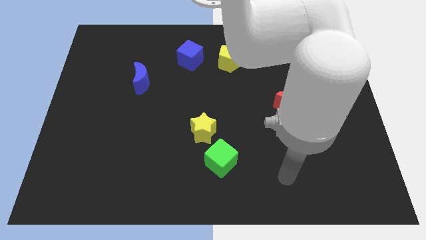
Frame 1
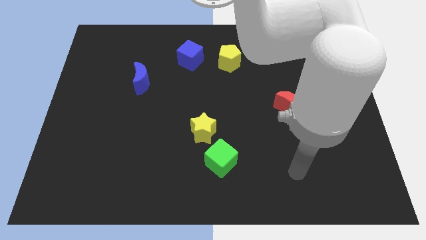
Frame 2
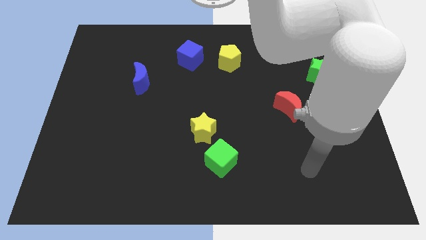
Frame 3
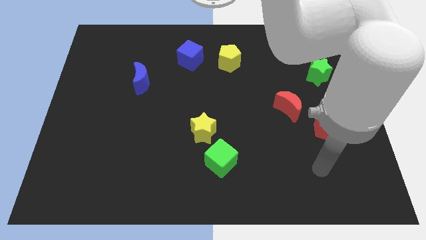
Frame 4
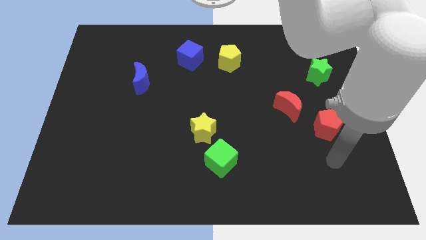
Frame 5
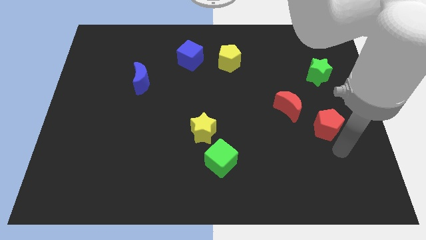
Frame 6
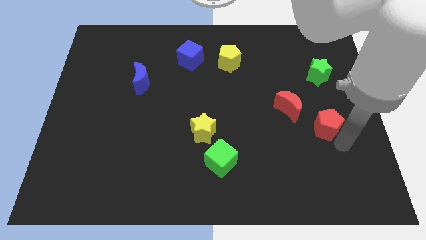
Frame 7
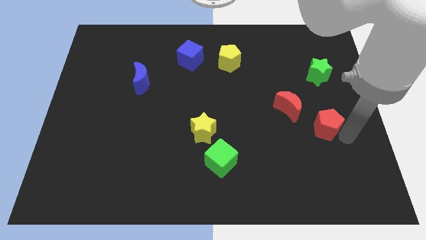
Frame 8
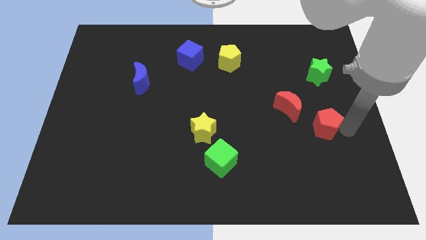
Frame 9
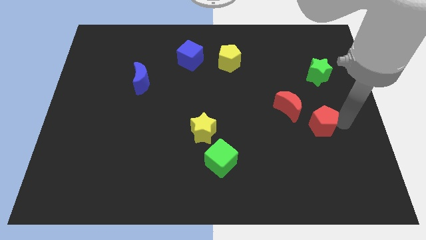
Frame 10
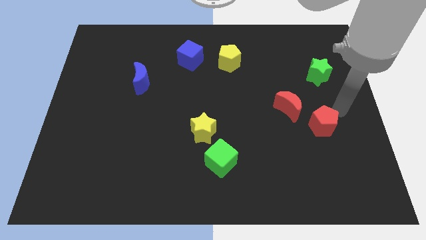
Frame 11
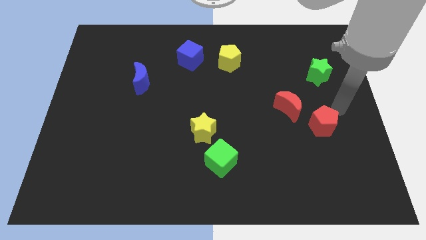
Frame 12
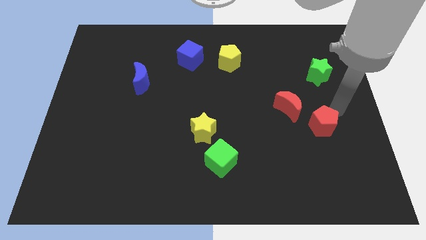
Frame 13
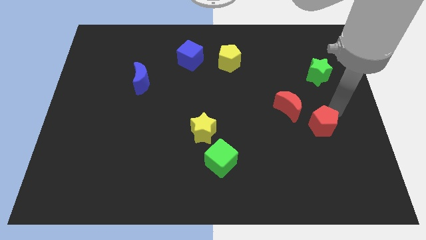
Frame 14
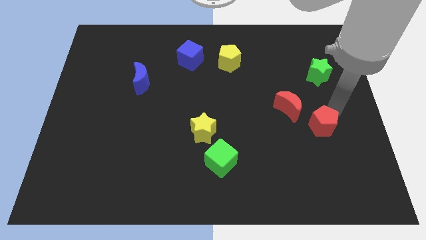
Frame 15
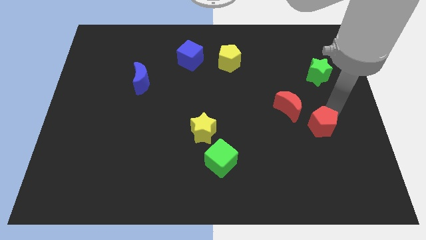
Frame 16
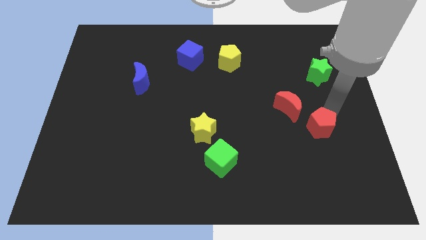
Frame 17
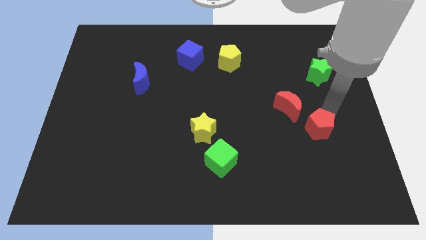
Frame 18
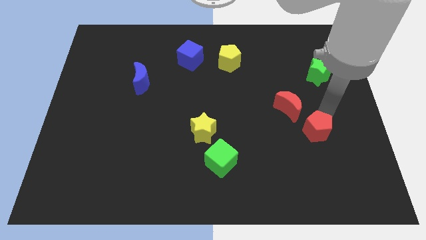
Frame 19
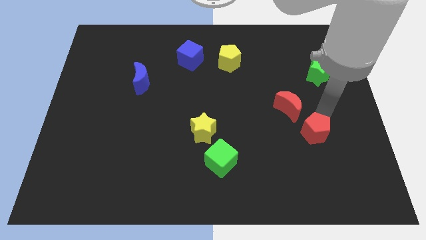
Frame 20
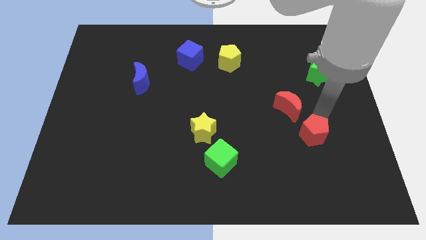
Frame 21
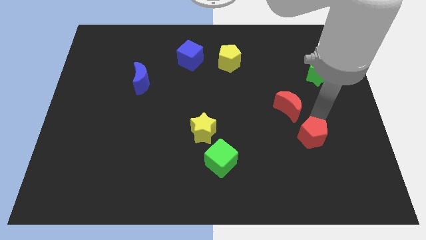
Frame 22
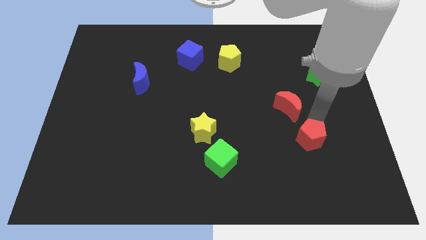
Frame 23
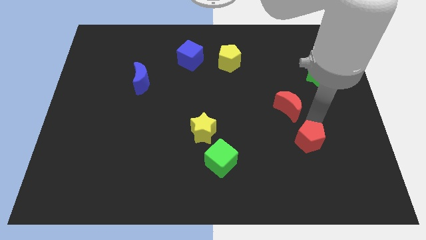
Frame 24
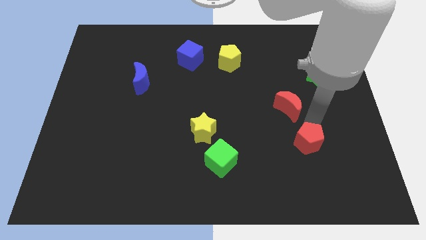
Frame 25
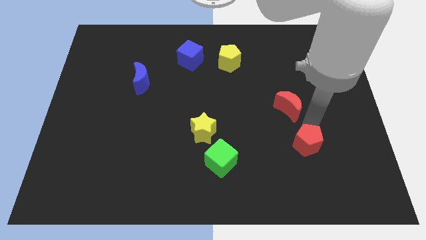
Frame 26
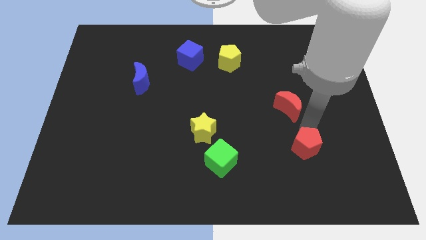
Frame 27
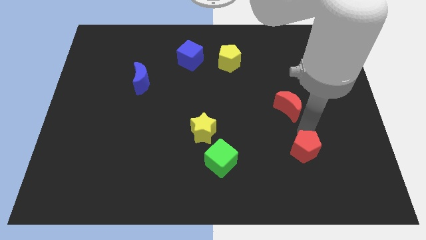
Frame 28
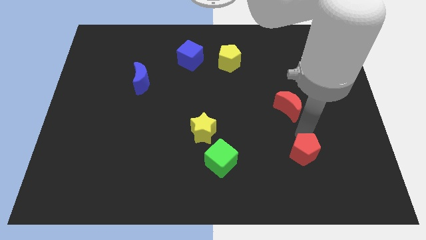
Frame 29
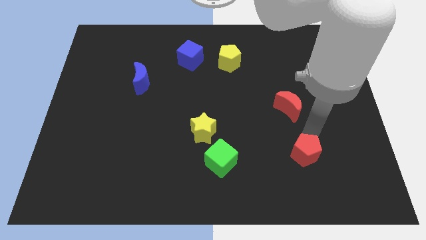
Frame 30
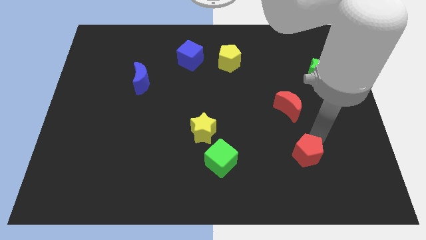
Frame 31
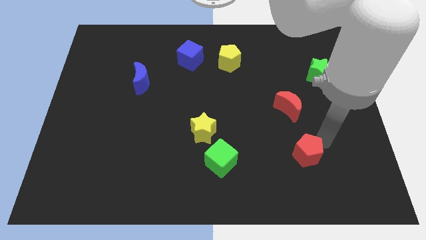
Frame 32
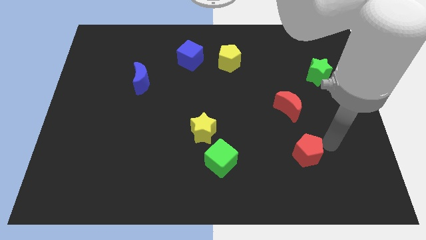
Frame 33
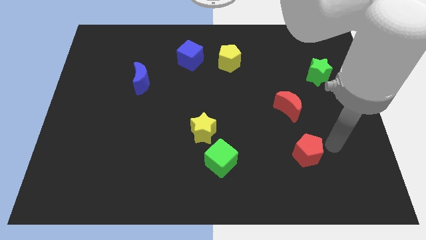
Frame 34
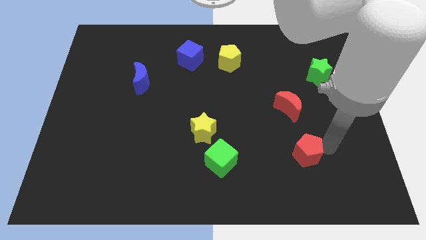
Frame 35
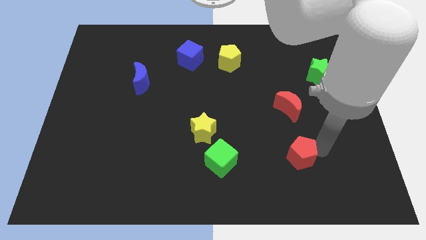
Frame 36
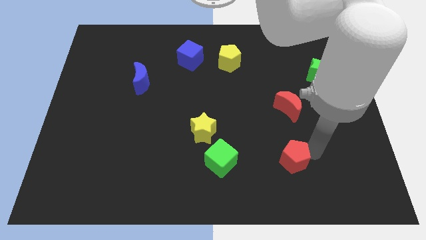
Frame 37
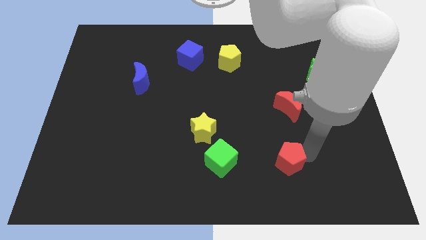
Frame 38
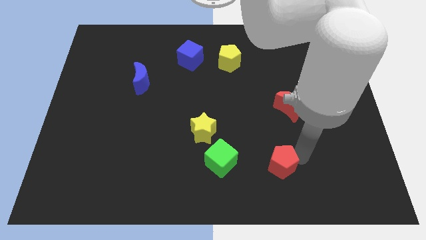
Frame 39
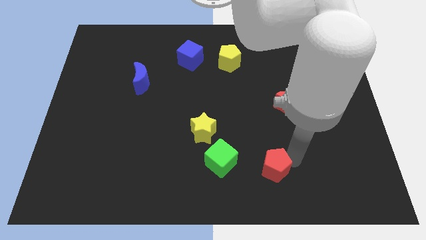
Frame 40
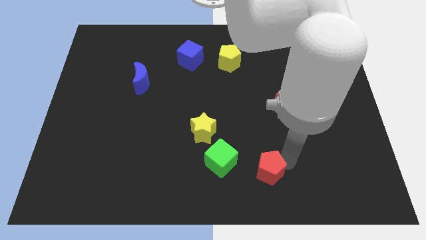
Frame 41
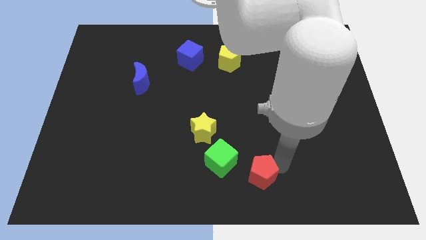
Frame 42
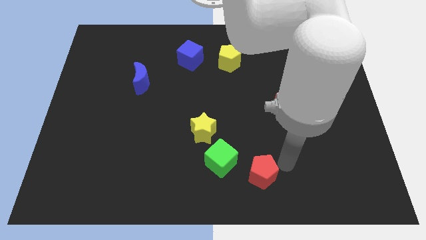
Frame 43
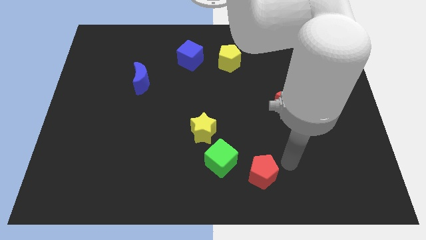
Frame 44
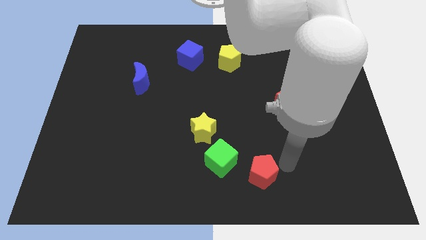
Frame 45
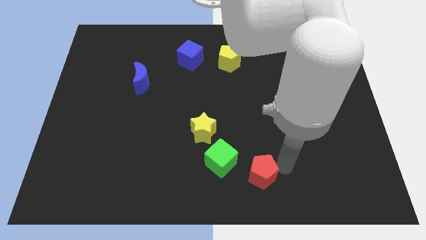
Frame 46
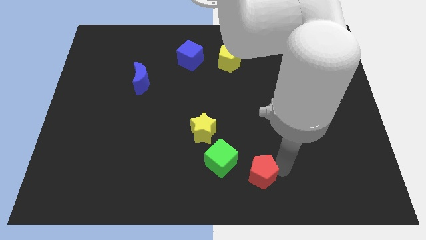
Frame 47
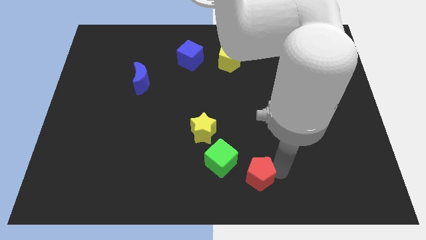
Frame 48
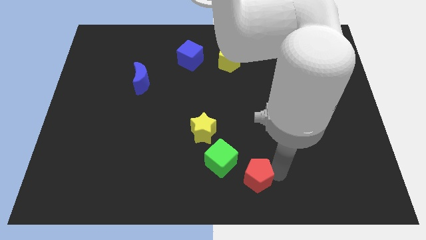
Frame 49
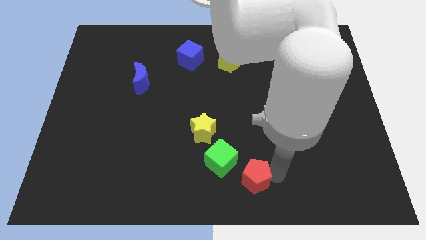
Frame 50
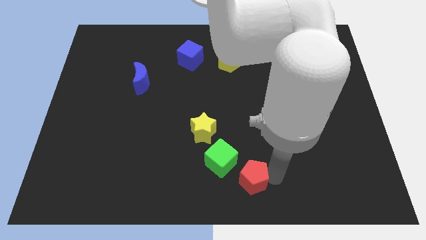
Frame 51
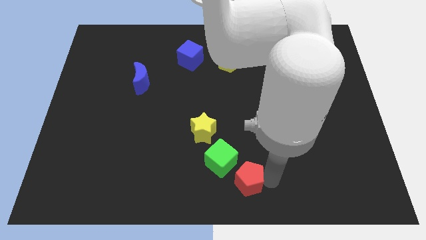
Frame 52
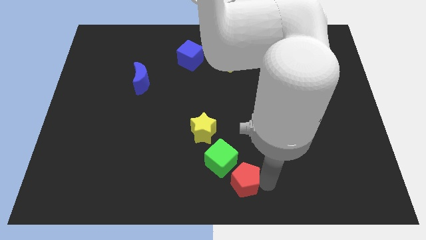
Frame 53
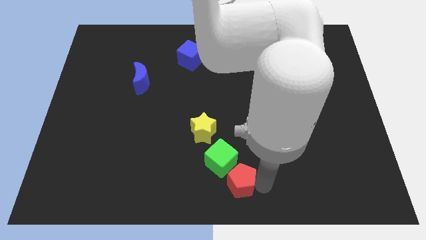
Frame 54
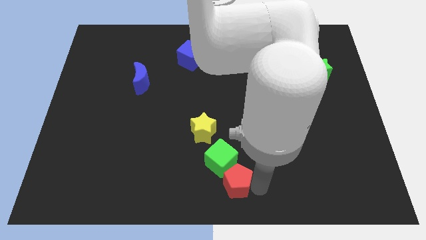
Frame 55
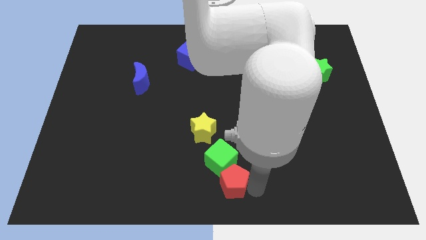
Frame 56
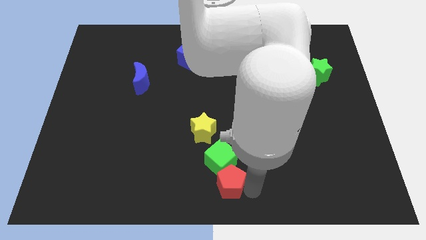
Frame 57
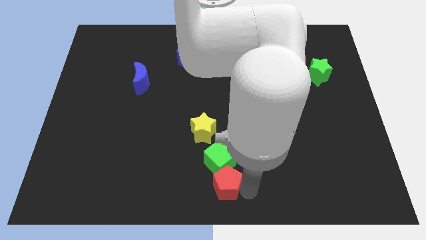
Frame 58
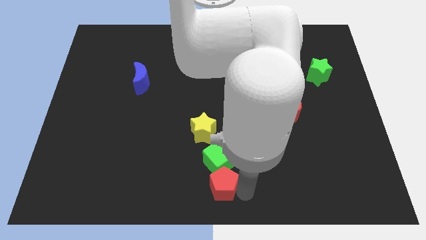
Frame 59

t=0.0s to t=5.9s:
put the red pentagon to the bottom side of the yellow star

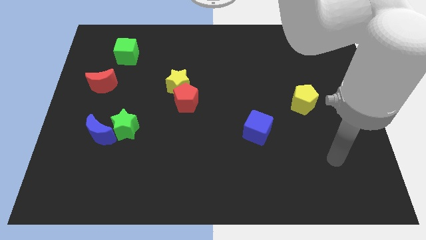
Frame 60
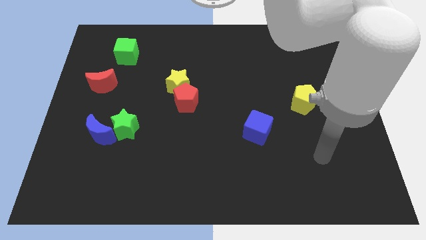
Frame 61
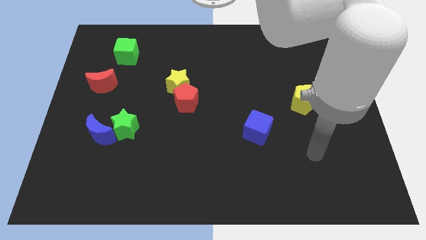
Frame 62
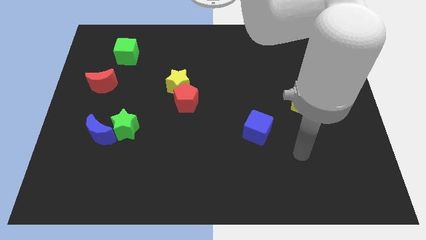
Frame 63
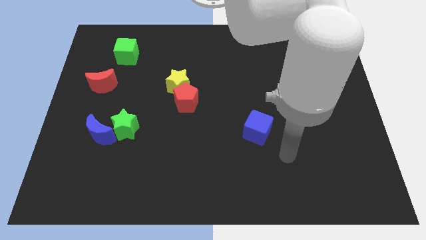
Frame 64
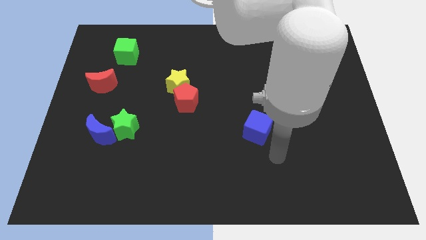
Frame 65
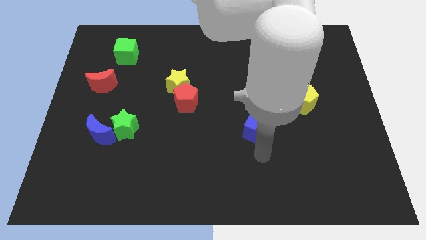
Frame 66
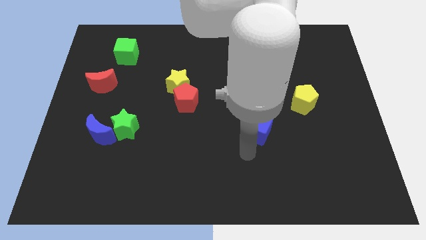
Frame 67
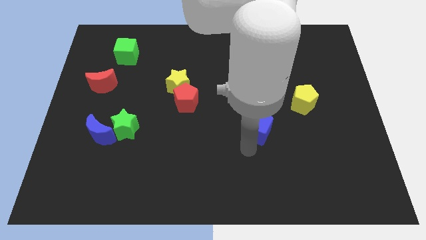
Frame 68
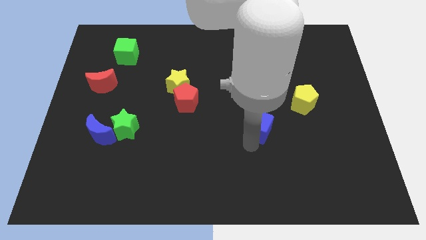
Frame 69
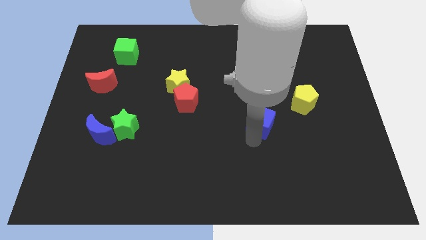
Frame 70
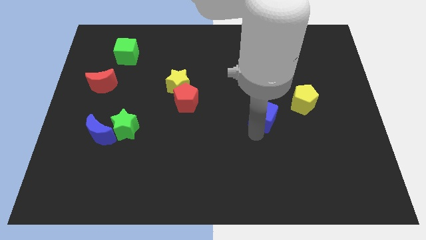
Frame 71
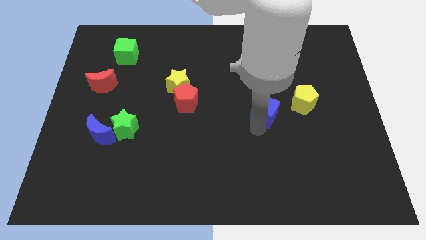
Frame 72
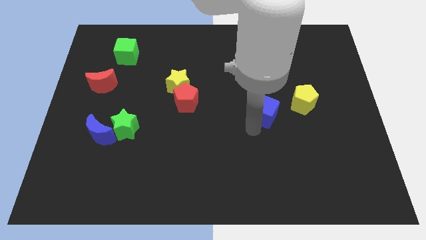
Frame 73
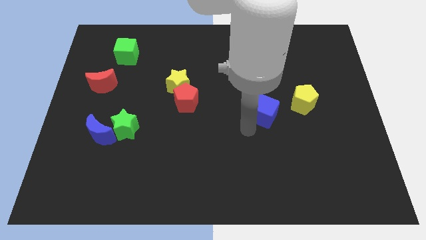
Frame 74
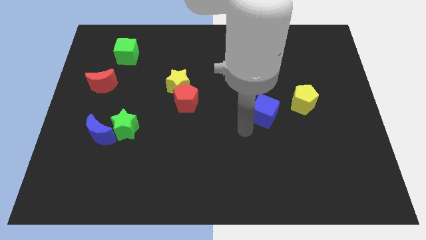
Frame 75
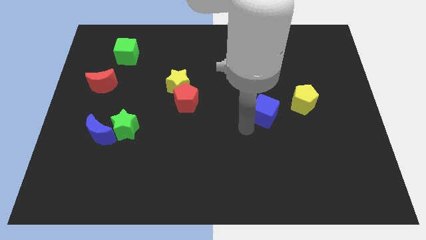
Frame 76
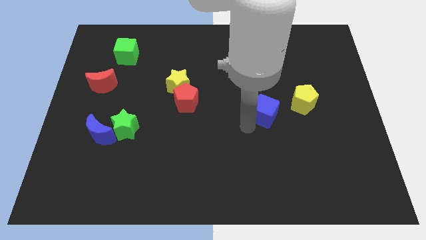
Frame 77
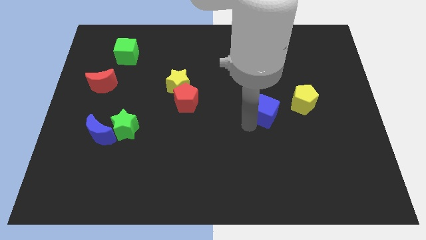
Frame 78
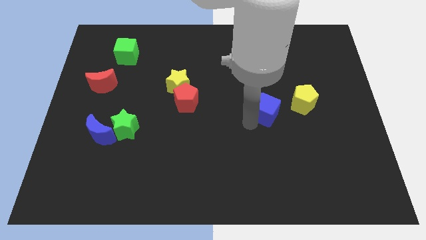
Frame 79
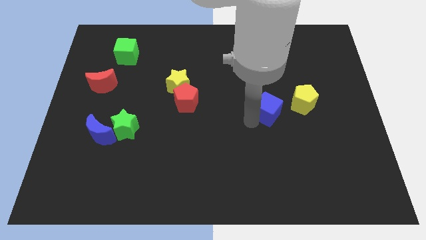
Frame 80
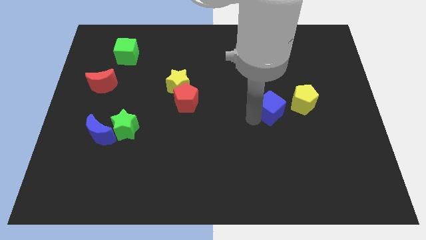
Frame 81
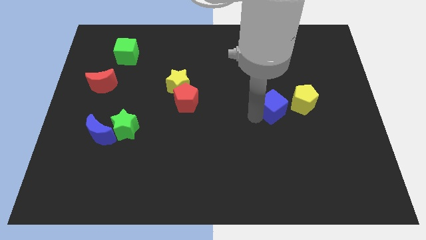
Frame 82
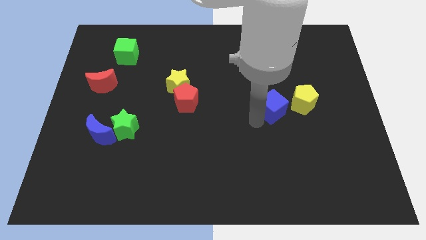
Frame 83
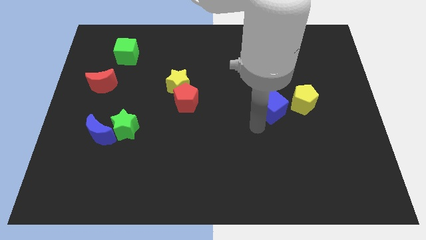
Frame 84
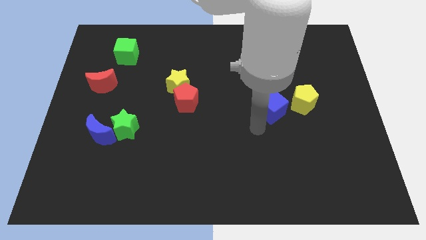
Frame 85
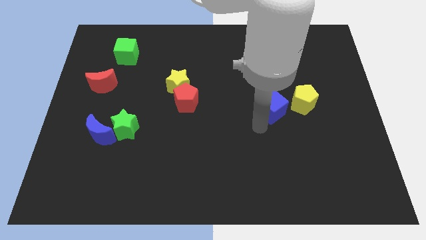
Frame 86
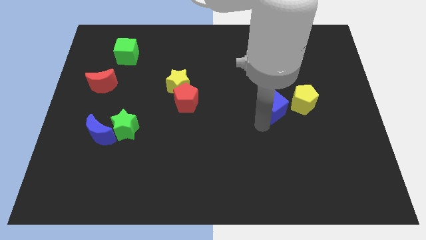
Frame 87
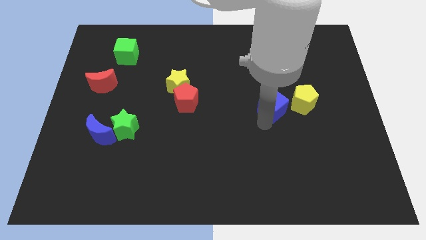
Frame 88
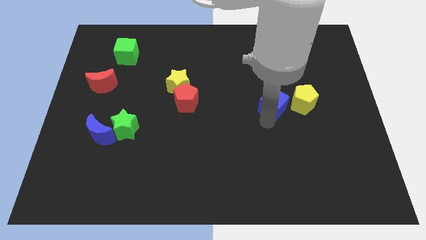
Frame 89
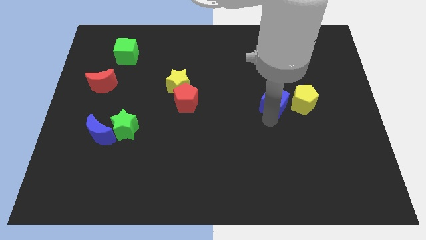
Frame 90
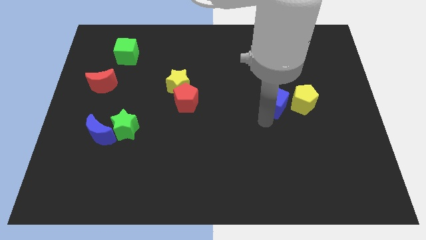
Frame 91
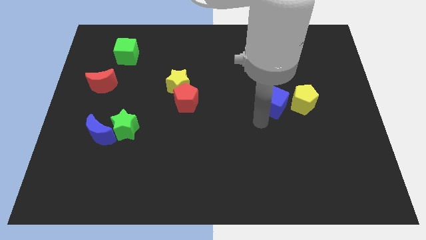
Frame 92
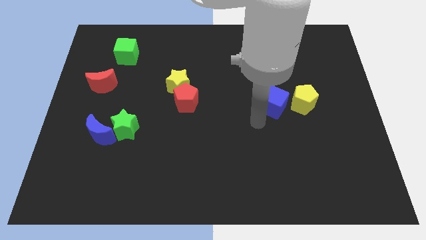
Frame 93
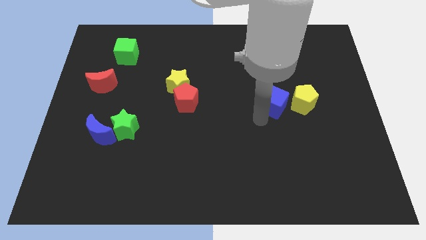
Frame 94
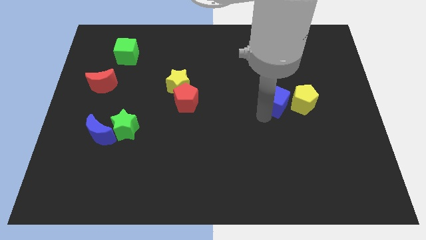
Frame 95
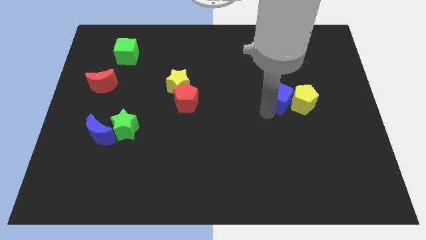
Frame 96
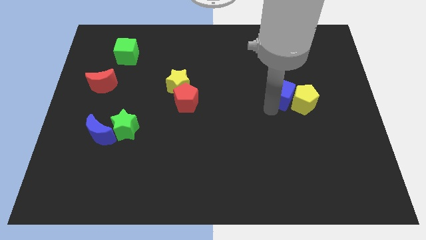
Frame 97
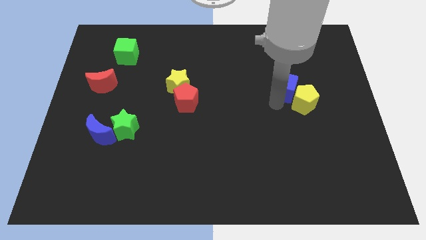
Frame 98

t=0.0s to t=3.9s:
push the blue cube to the top of the yellow pentagon
